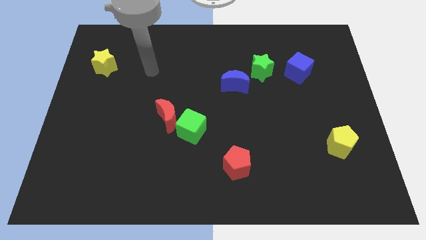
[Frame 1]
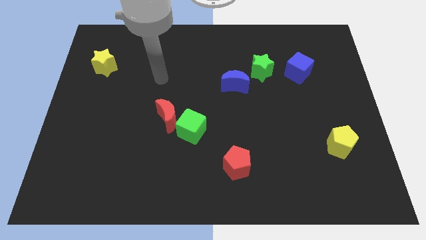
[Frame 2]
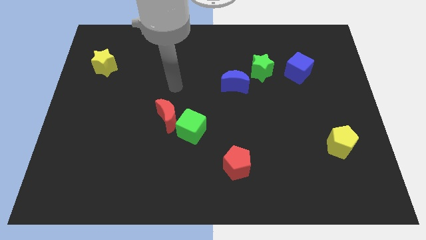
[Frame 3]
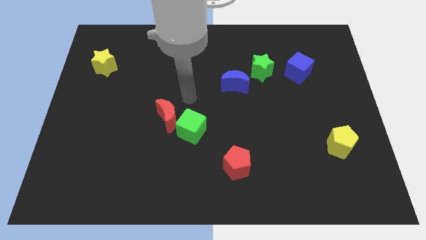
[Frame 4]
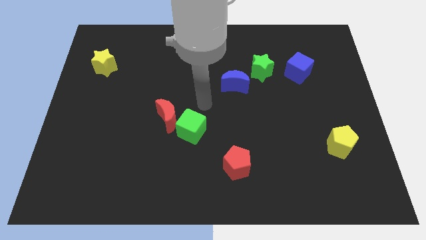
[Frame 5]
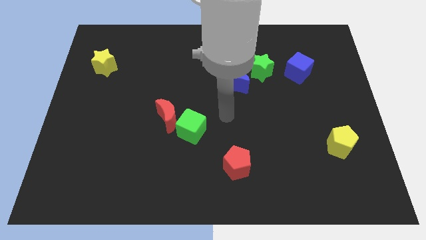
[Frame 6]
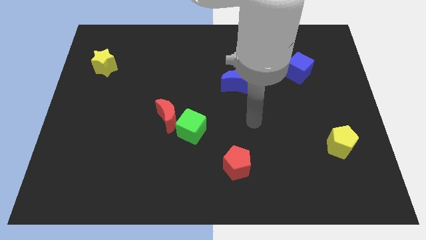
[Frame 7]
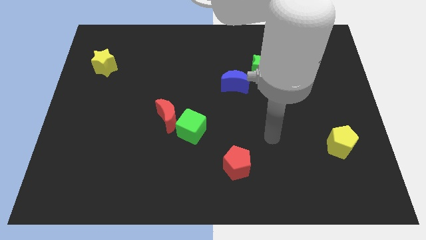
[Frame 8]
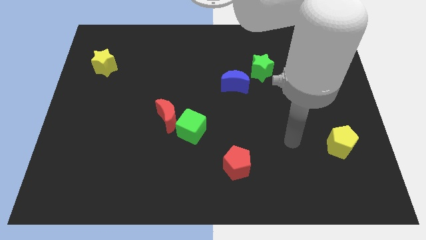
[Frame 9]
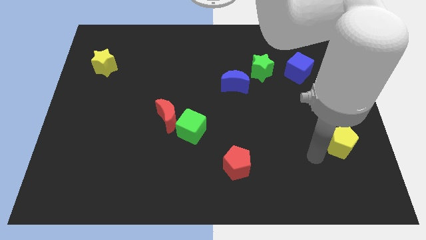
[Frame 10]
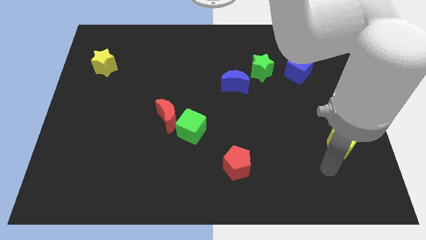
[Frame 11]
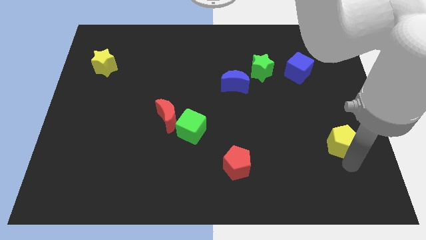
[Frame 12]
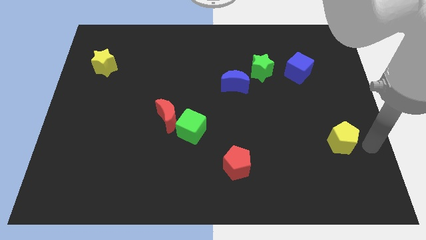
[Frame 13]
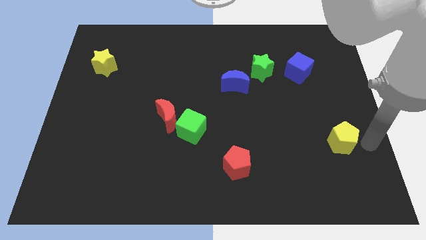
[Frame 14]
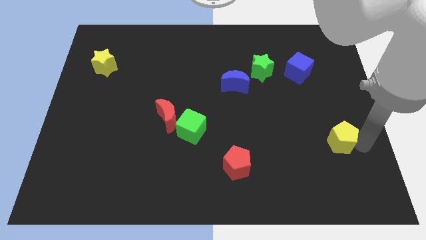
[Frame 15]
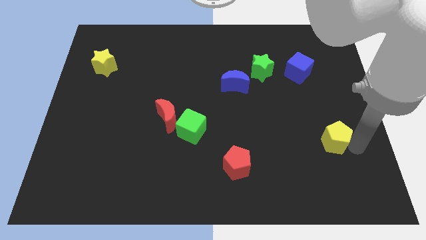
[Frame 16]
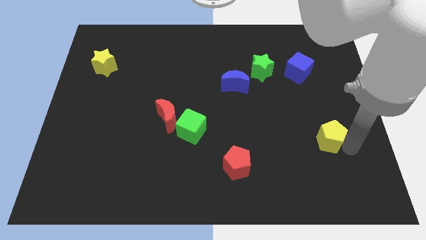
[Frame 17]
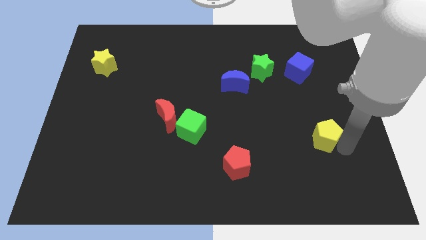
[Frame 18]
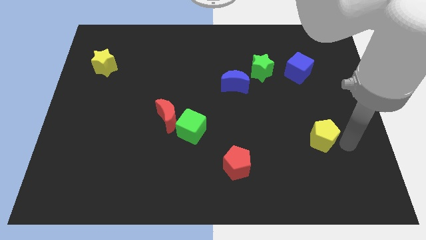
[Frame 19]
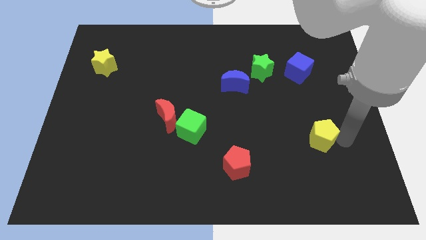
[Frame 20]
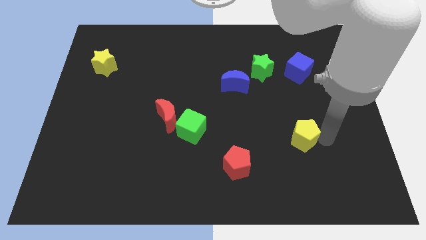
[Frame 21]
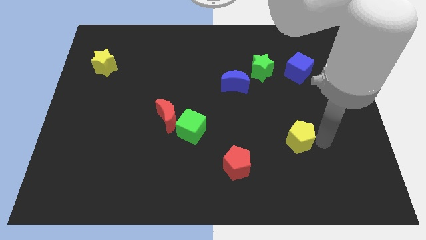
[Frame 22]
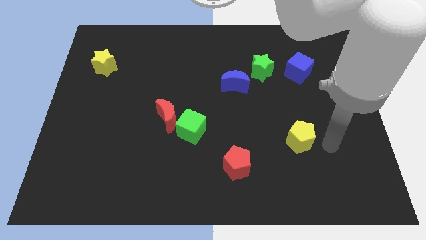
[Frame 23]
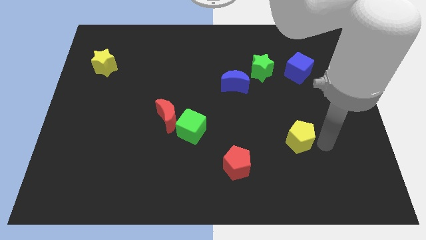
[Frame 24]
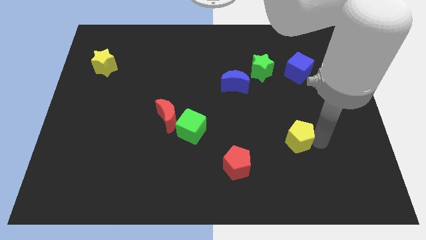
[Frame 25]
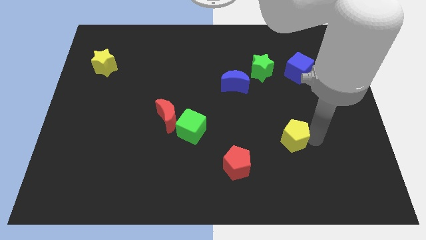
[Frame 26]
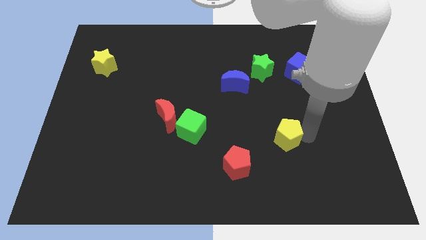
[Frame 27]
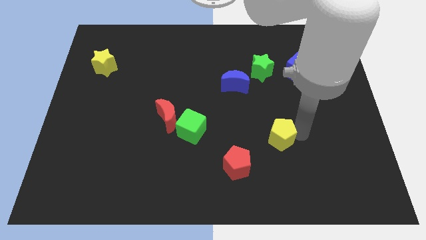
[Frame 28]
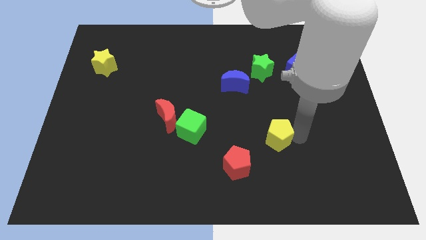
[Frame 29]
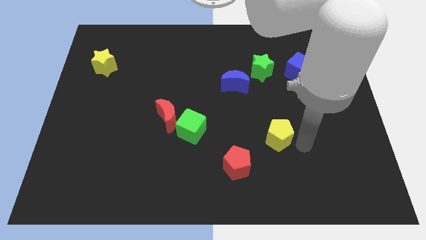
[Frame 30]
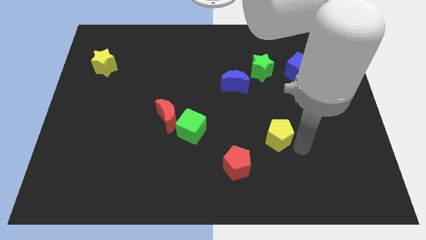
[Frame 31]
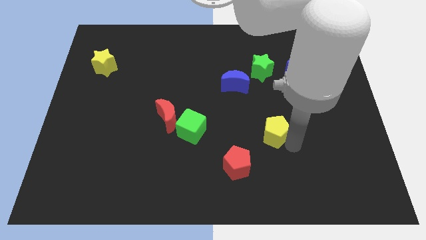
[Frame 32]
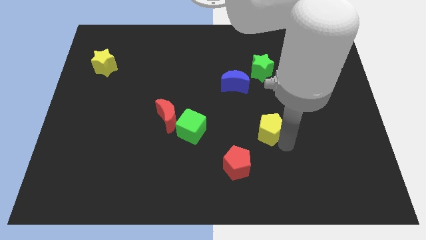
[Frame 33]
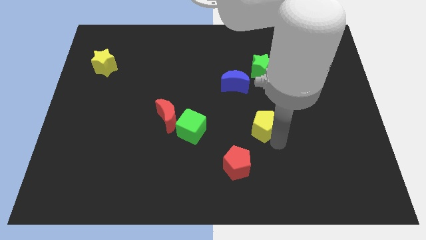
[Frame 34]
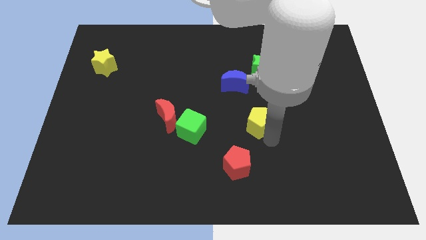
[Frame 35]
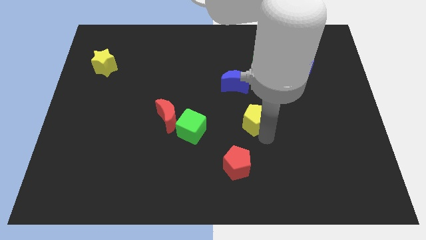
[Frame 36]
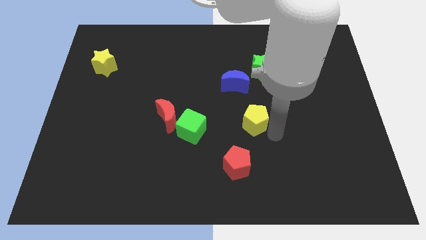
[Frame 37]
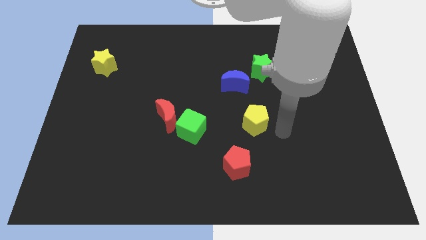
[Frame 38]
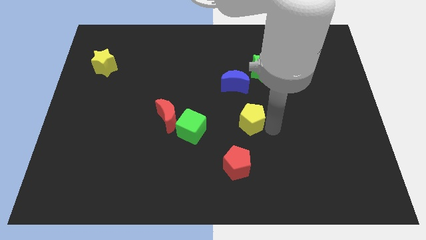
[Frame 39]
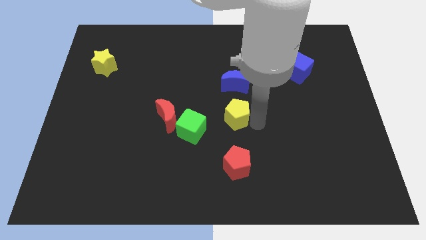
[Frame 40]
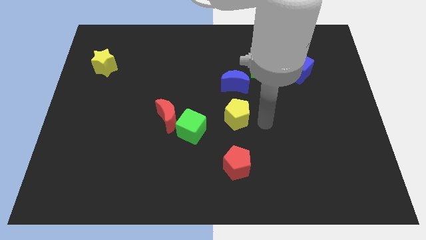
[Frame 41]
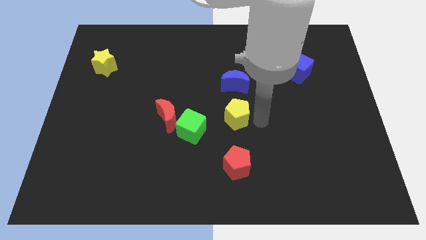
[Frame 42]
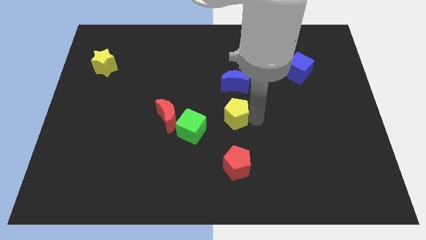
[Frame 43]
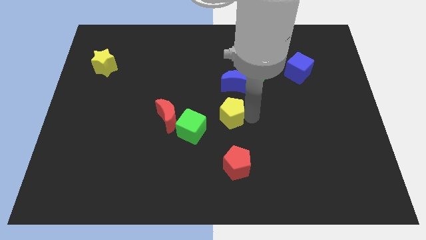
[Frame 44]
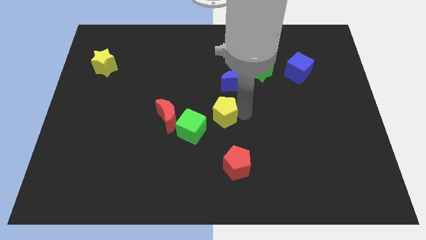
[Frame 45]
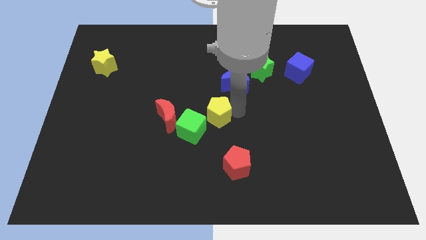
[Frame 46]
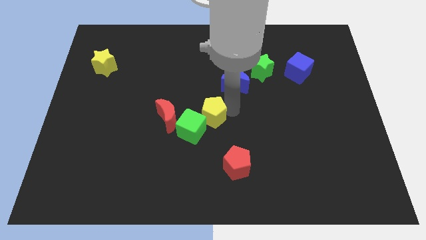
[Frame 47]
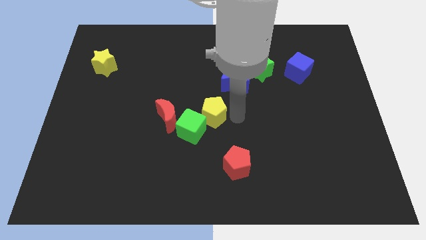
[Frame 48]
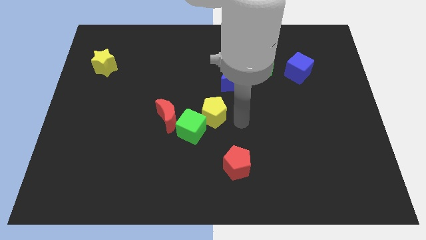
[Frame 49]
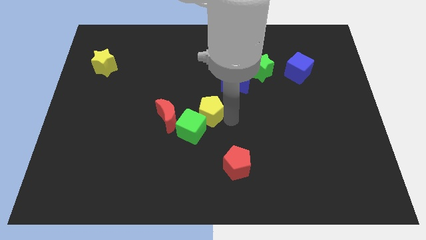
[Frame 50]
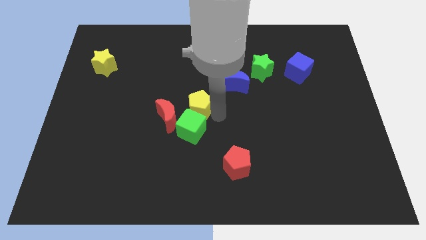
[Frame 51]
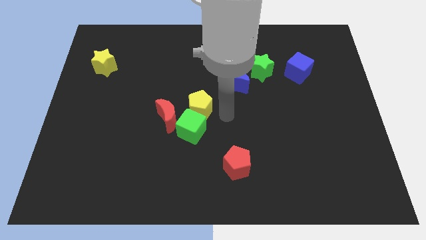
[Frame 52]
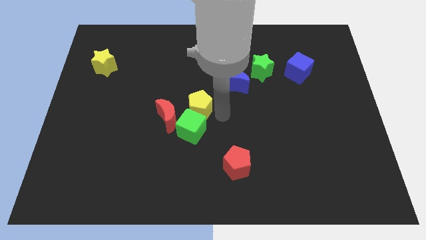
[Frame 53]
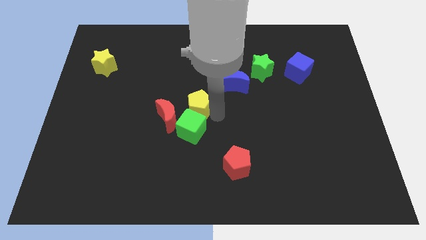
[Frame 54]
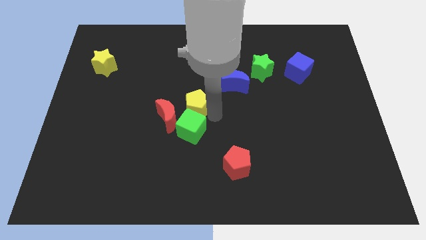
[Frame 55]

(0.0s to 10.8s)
slide the yellow pentagon to the top left side of the green cube

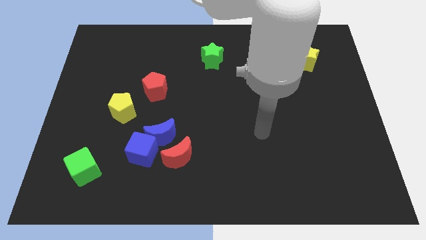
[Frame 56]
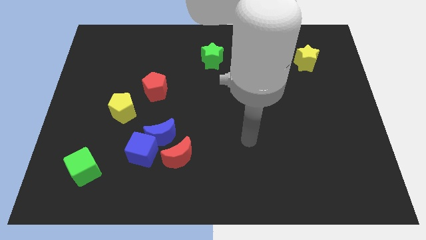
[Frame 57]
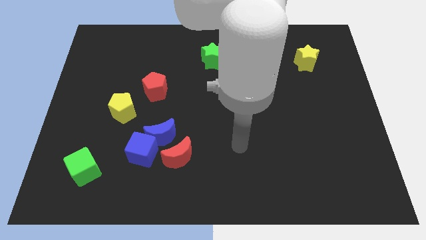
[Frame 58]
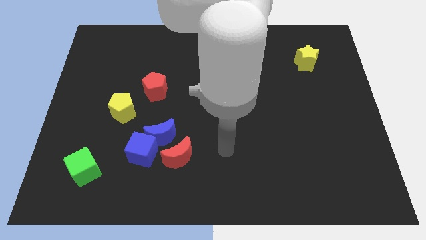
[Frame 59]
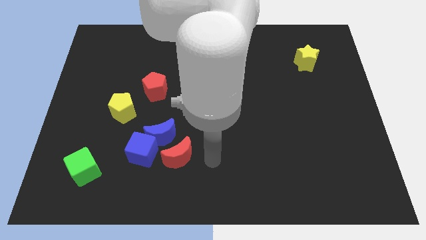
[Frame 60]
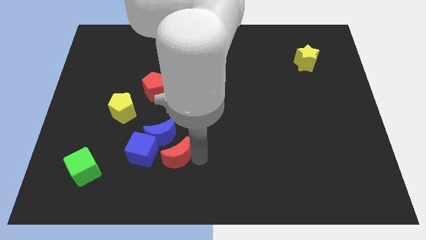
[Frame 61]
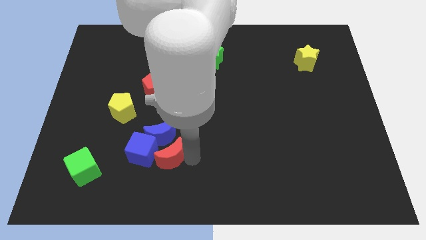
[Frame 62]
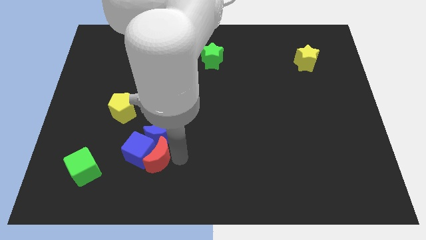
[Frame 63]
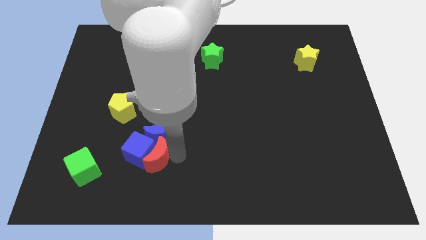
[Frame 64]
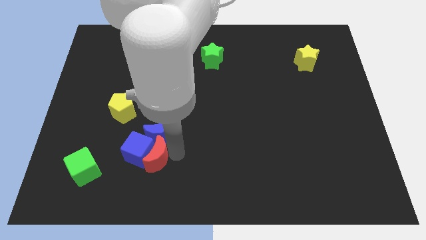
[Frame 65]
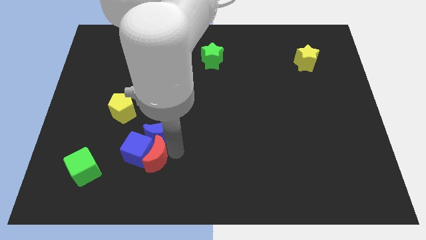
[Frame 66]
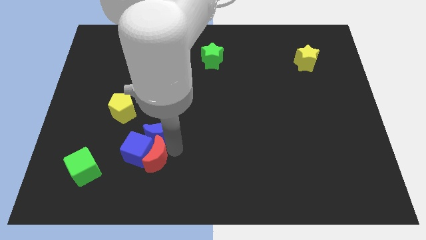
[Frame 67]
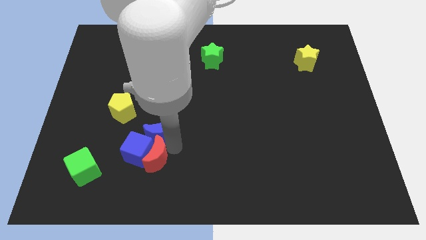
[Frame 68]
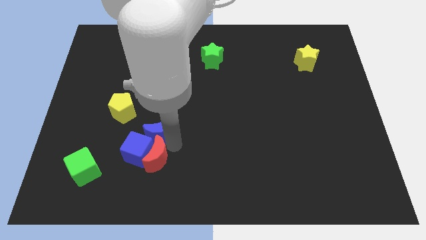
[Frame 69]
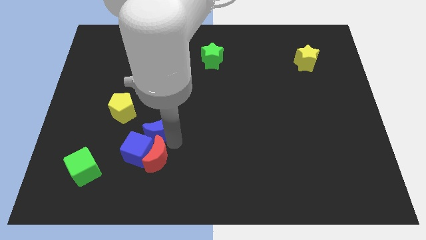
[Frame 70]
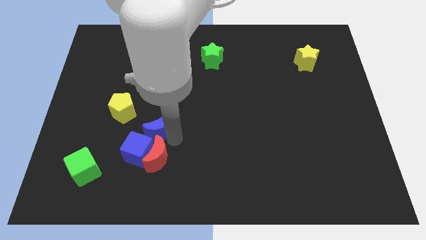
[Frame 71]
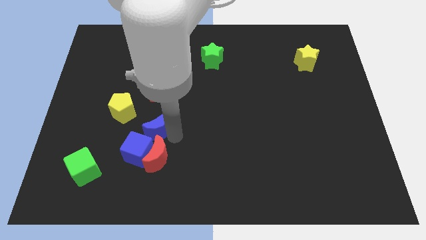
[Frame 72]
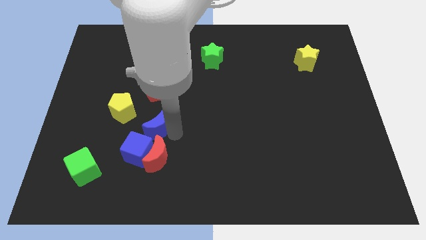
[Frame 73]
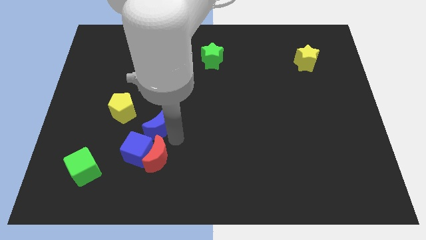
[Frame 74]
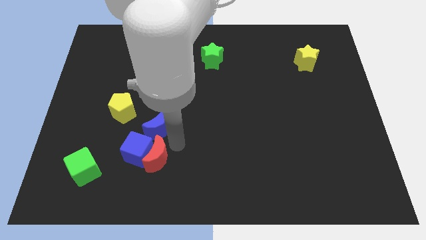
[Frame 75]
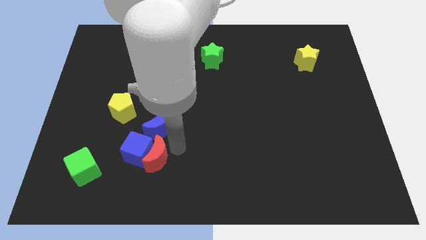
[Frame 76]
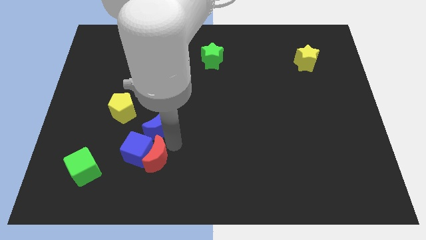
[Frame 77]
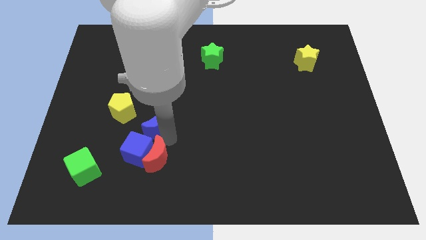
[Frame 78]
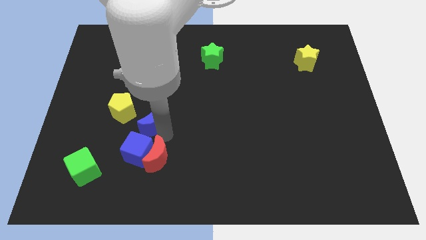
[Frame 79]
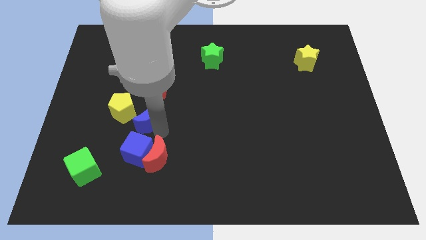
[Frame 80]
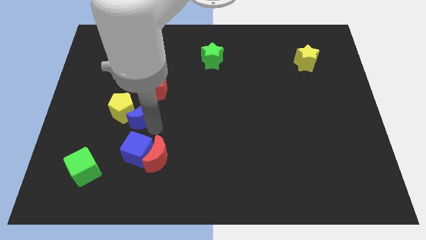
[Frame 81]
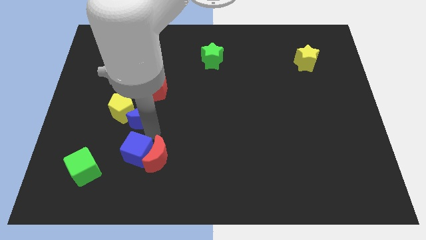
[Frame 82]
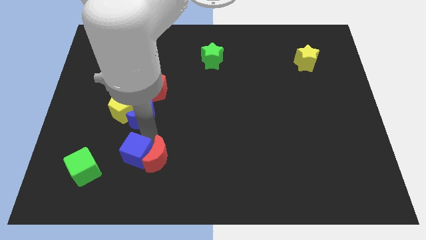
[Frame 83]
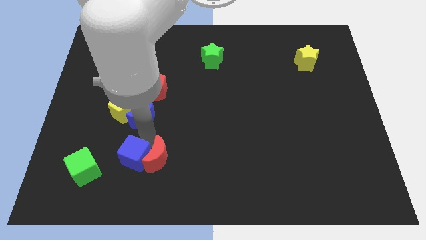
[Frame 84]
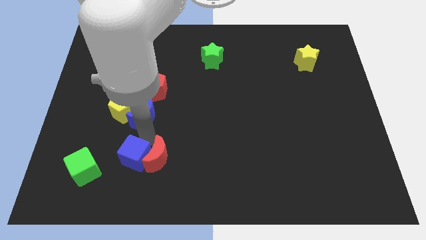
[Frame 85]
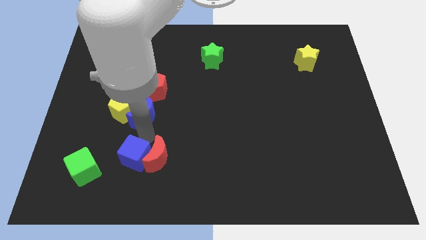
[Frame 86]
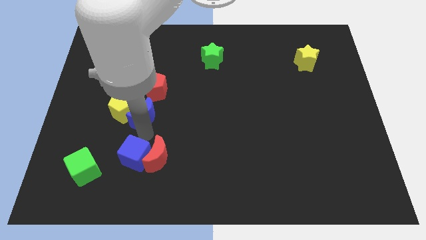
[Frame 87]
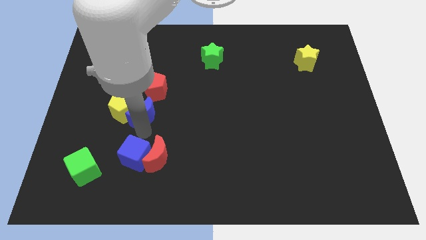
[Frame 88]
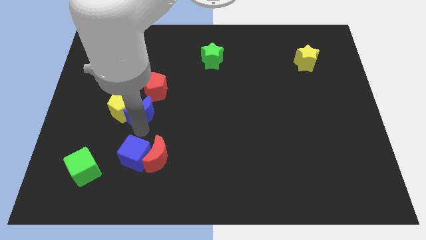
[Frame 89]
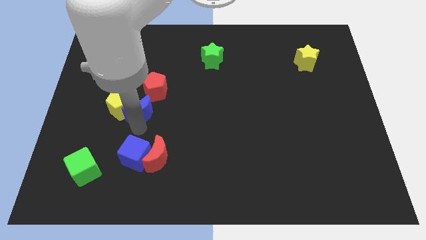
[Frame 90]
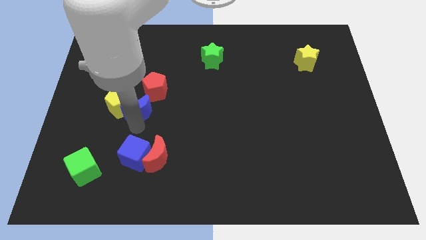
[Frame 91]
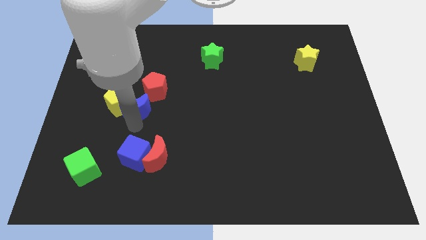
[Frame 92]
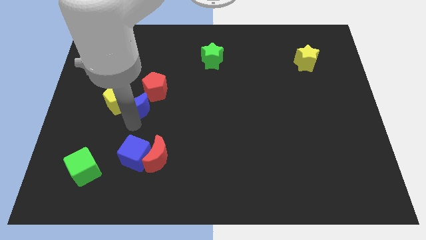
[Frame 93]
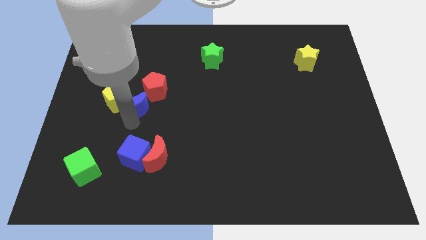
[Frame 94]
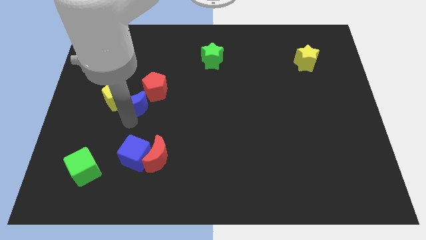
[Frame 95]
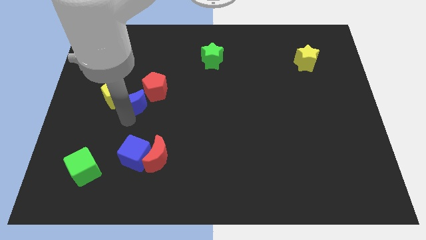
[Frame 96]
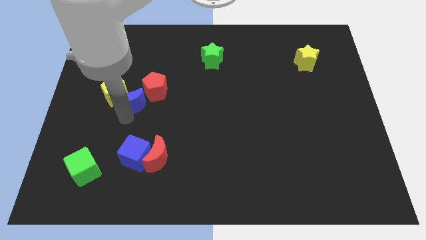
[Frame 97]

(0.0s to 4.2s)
push the blue moon to the left of the red pentagon
